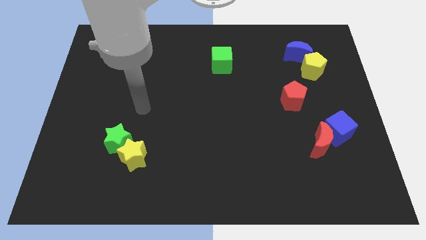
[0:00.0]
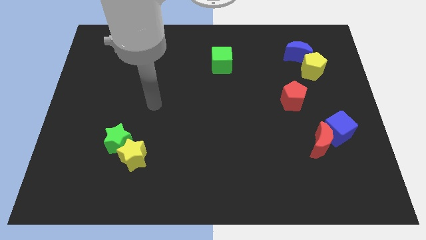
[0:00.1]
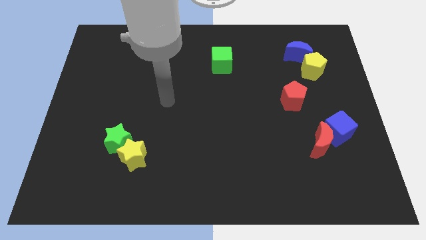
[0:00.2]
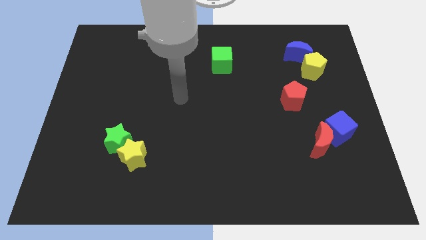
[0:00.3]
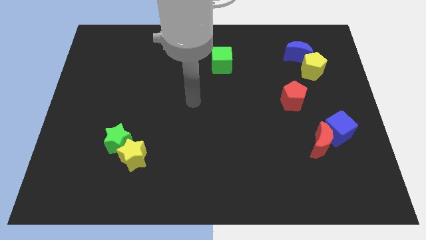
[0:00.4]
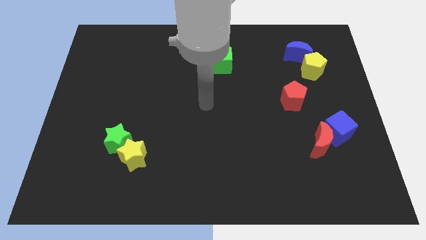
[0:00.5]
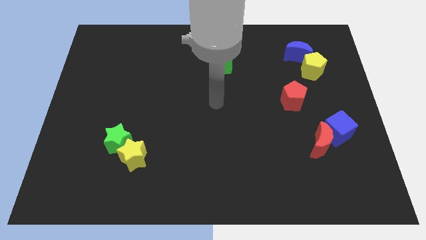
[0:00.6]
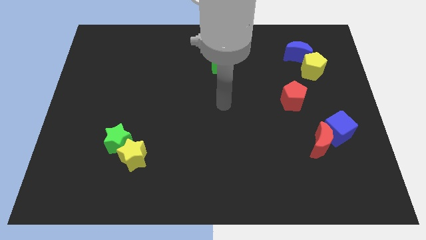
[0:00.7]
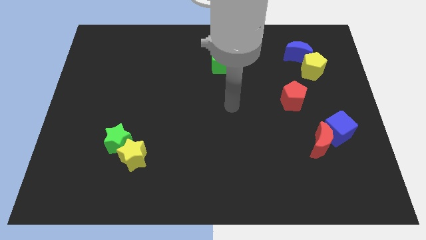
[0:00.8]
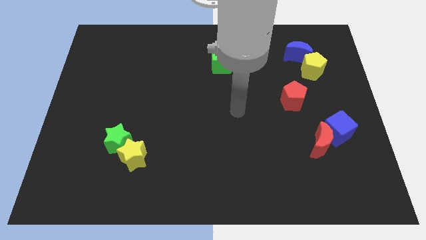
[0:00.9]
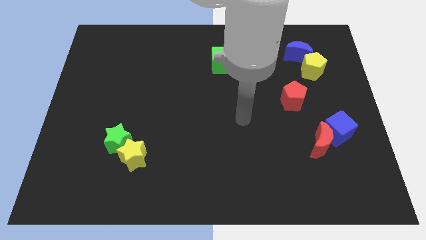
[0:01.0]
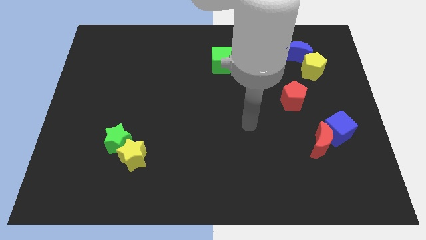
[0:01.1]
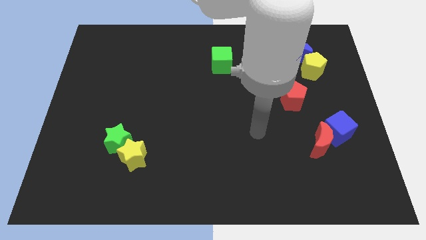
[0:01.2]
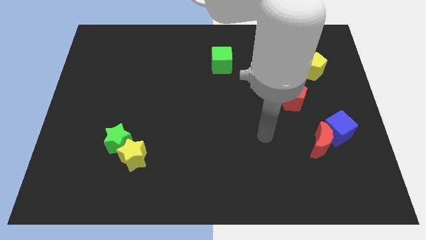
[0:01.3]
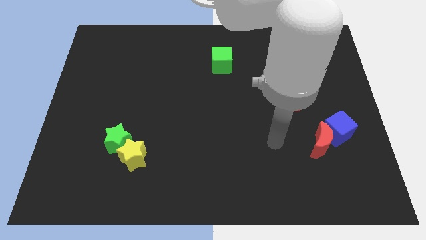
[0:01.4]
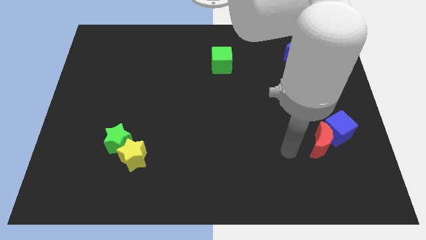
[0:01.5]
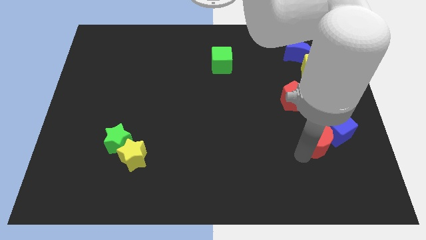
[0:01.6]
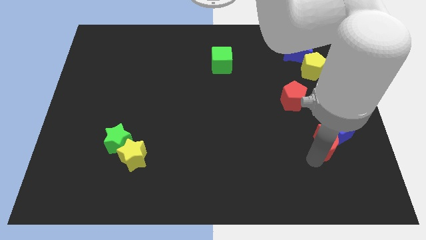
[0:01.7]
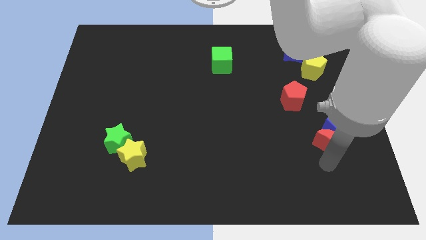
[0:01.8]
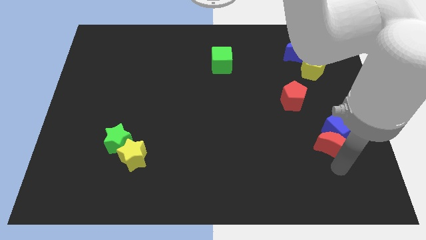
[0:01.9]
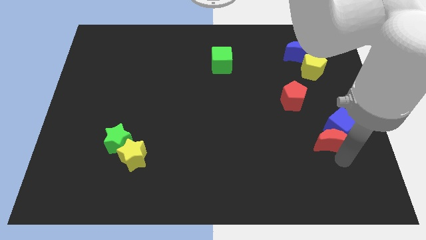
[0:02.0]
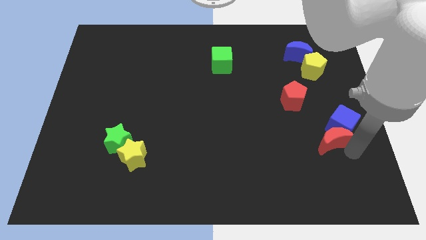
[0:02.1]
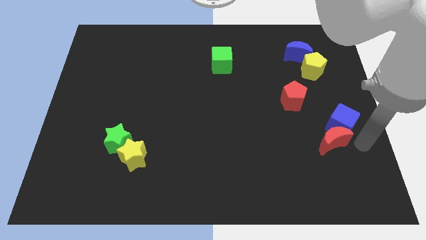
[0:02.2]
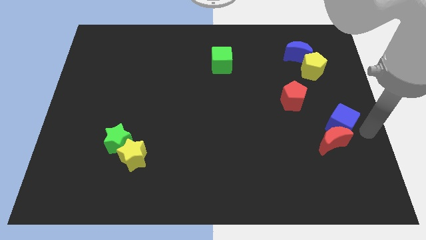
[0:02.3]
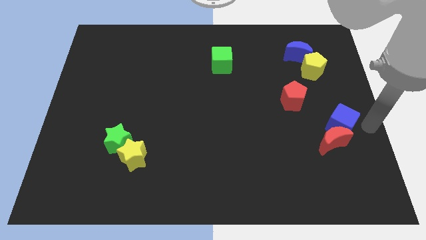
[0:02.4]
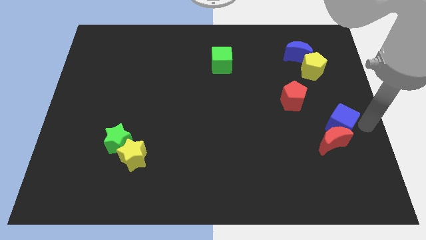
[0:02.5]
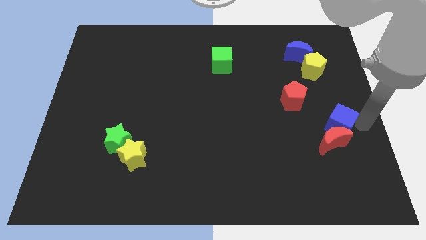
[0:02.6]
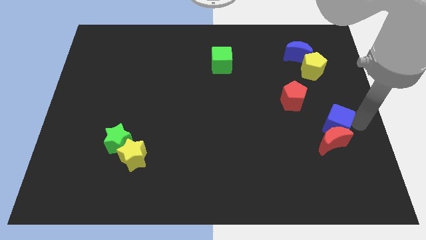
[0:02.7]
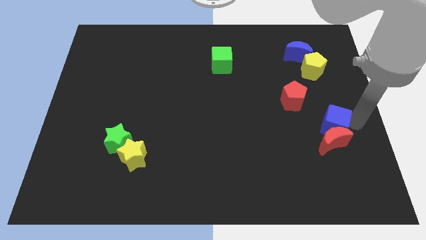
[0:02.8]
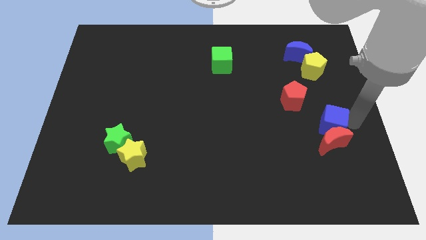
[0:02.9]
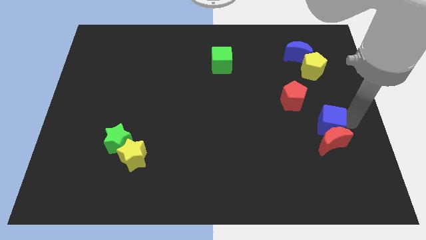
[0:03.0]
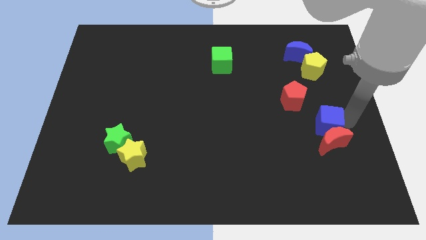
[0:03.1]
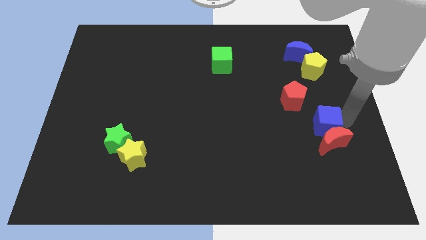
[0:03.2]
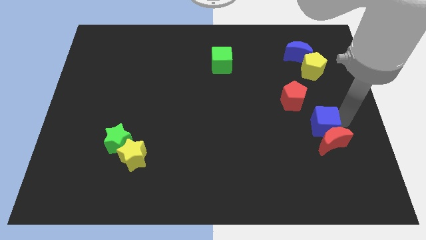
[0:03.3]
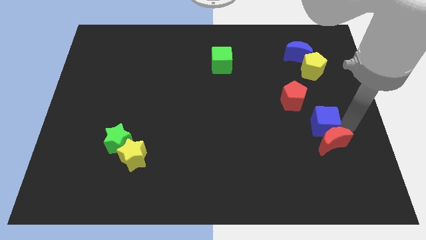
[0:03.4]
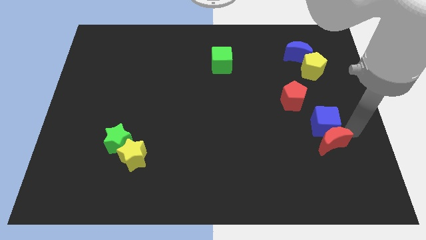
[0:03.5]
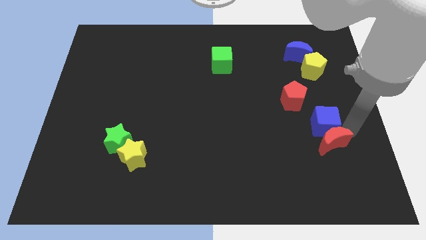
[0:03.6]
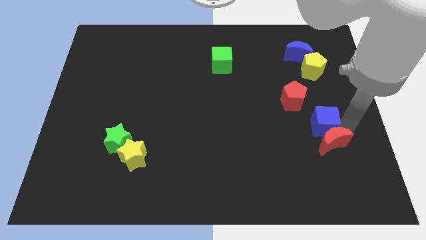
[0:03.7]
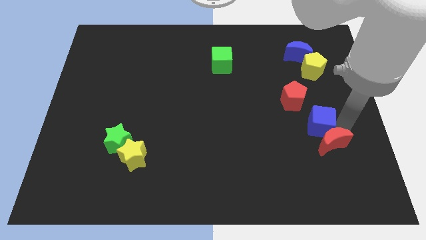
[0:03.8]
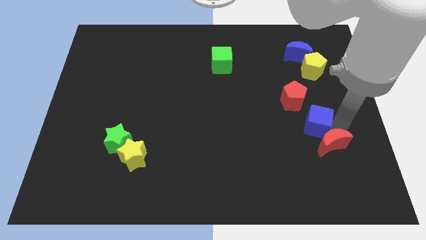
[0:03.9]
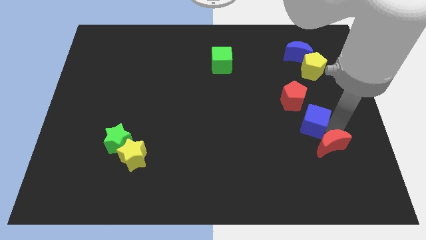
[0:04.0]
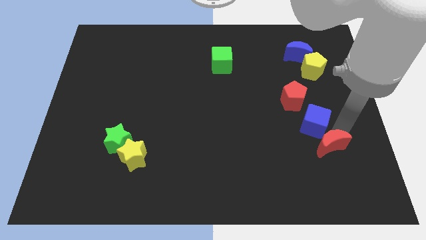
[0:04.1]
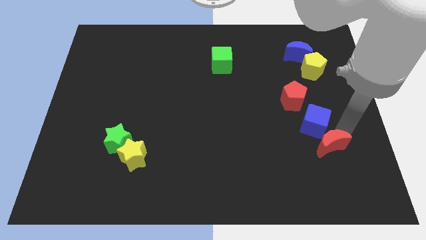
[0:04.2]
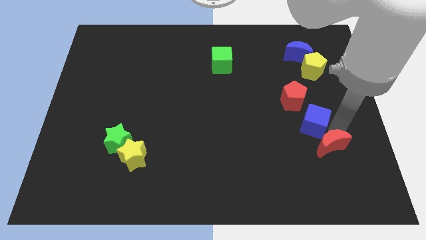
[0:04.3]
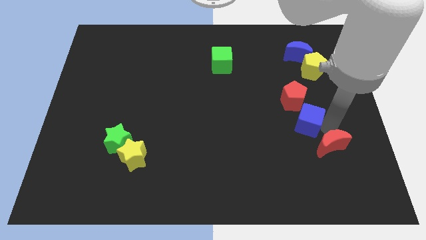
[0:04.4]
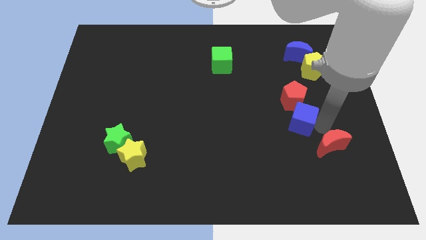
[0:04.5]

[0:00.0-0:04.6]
push the blue cube up and then to the left a little

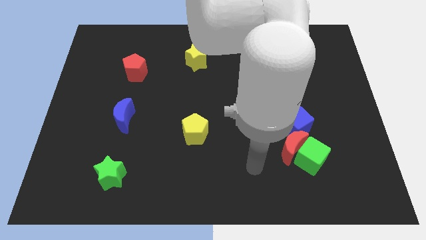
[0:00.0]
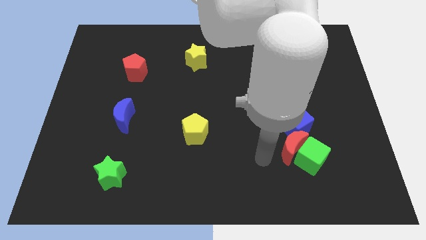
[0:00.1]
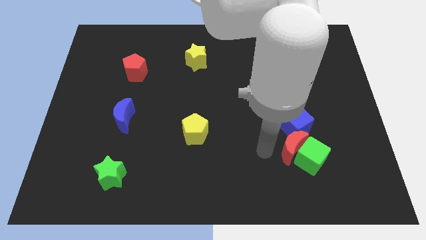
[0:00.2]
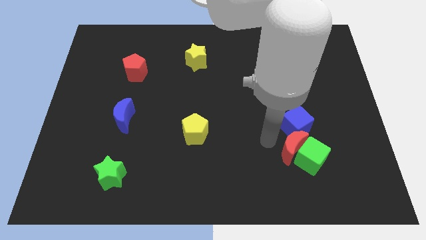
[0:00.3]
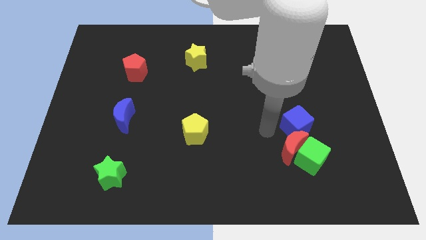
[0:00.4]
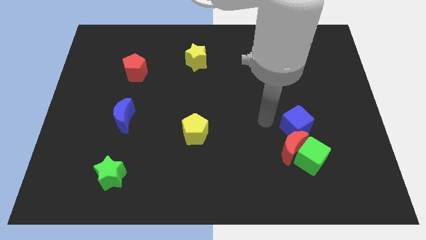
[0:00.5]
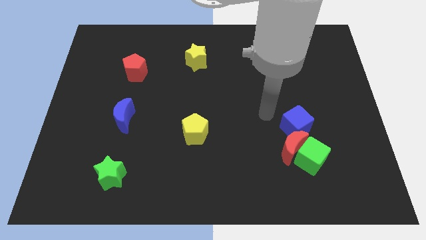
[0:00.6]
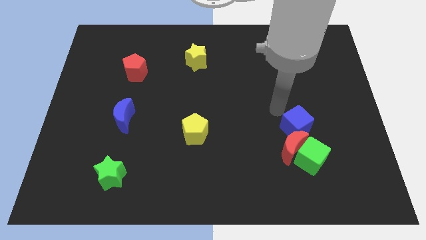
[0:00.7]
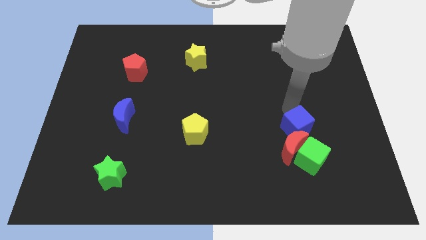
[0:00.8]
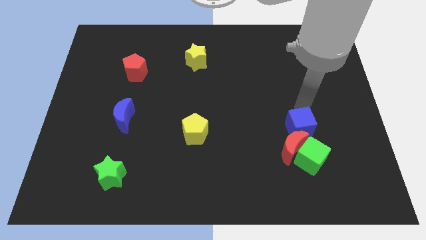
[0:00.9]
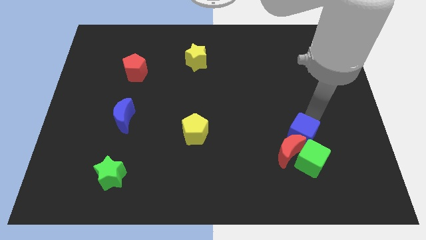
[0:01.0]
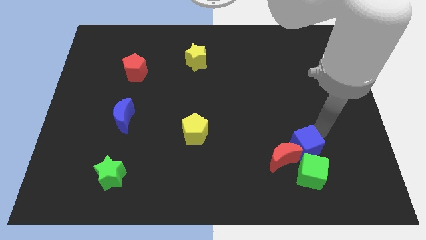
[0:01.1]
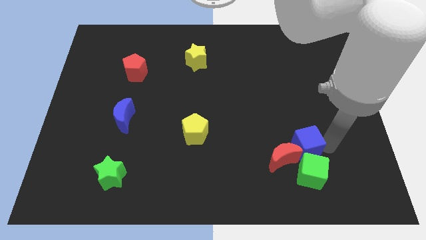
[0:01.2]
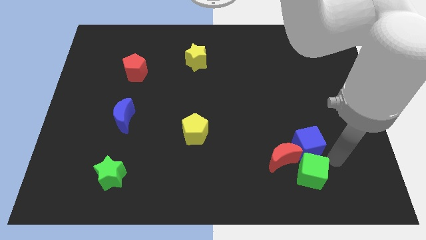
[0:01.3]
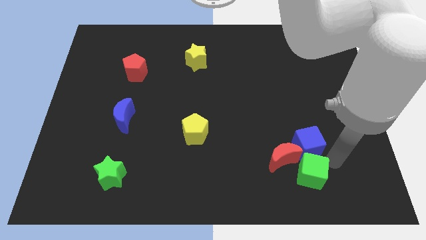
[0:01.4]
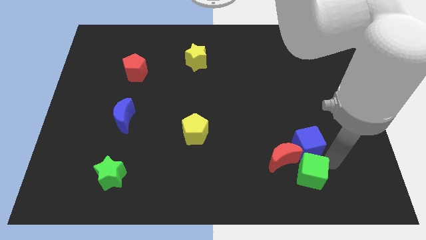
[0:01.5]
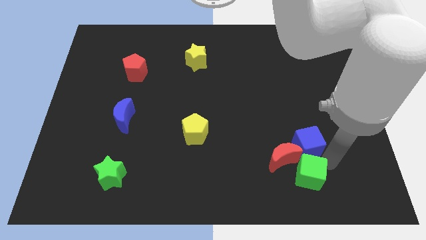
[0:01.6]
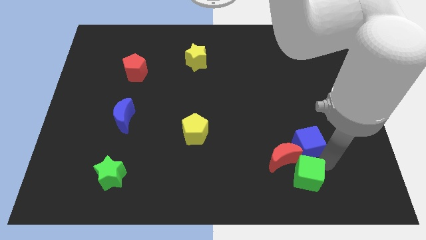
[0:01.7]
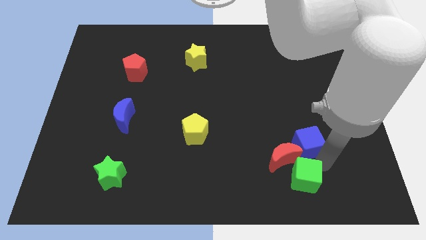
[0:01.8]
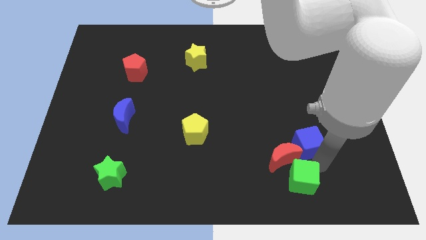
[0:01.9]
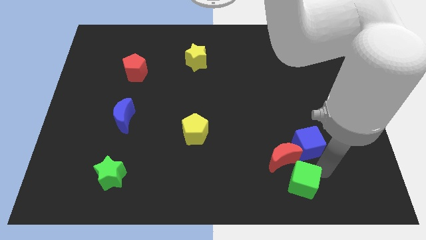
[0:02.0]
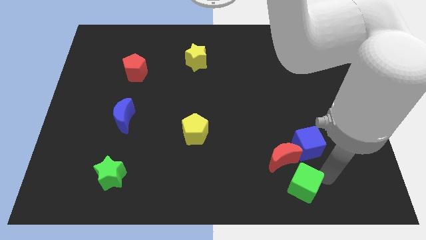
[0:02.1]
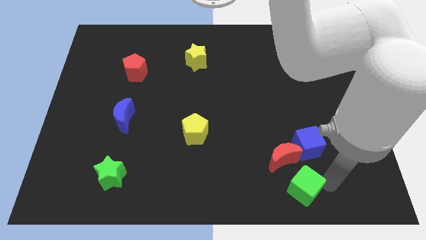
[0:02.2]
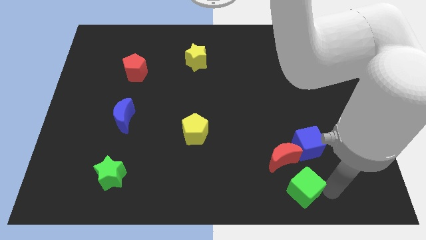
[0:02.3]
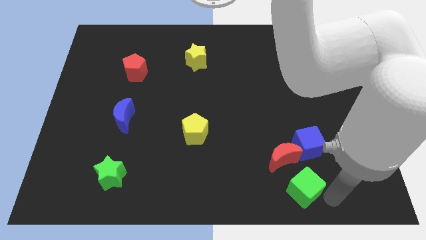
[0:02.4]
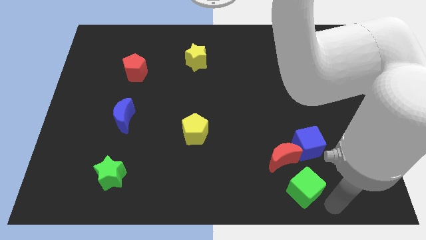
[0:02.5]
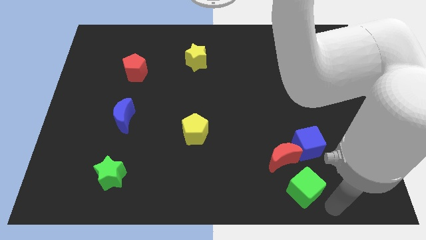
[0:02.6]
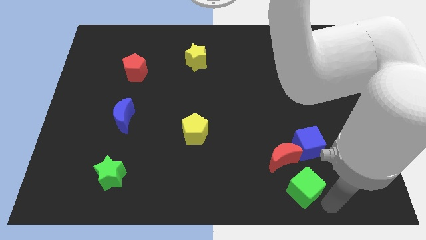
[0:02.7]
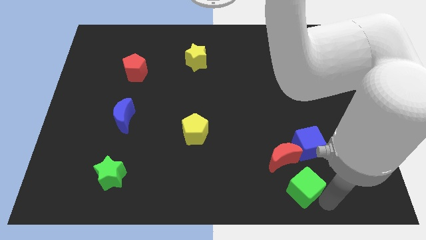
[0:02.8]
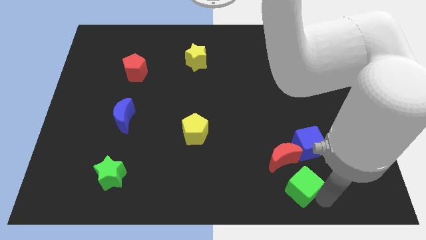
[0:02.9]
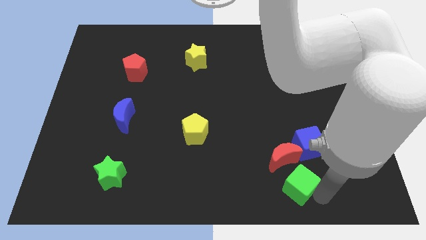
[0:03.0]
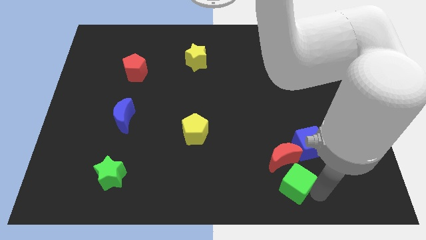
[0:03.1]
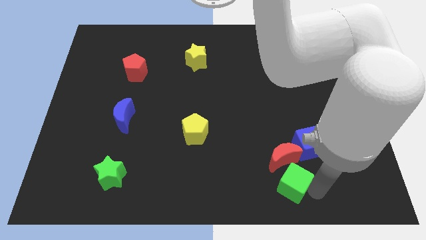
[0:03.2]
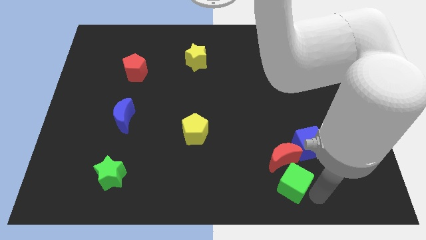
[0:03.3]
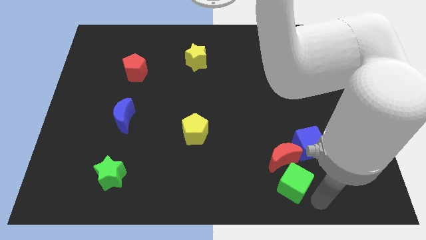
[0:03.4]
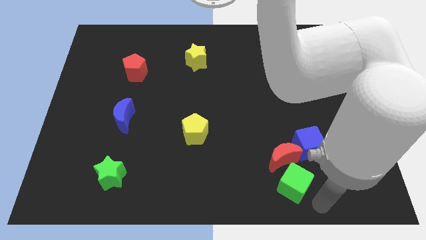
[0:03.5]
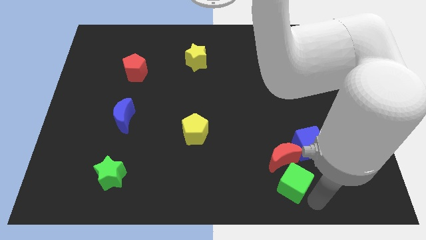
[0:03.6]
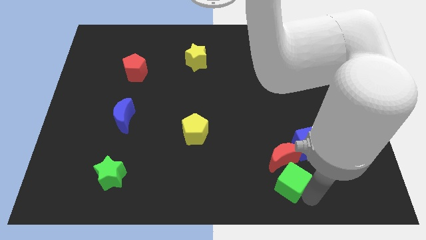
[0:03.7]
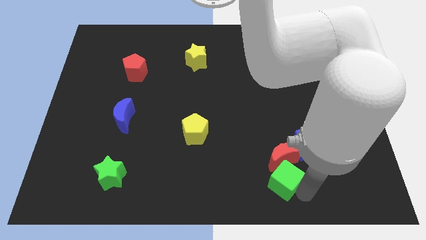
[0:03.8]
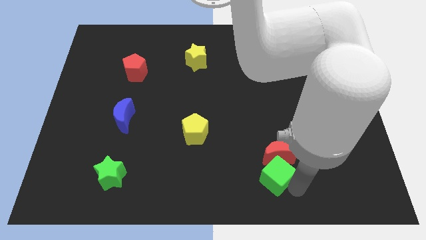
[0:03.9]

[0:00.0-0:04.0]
move the green cube a little bit left
